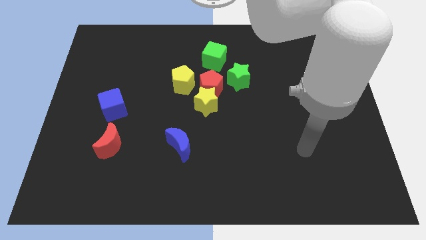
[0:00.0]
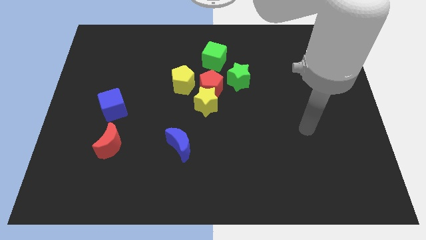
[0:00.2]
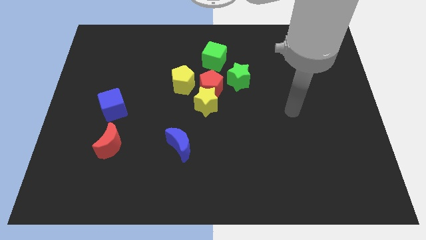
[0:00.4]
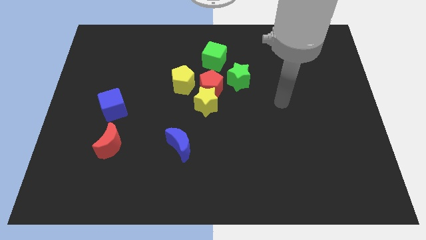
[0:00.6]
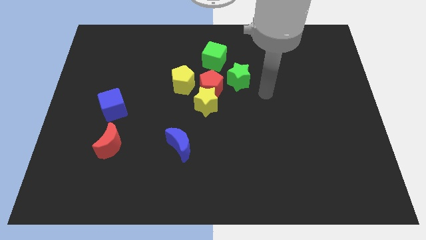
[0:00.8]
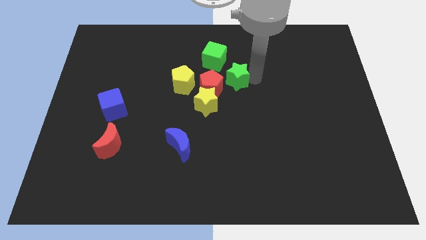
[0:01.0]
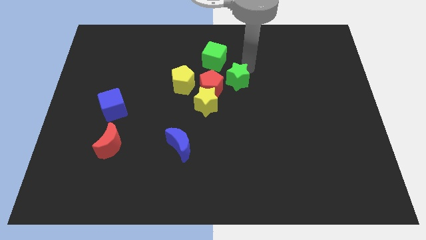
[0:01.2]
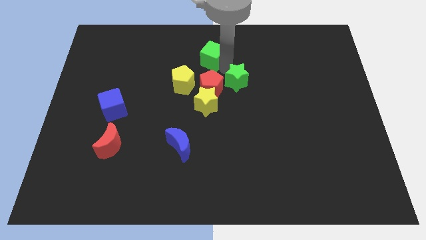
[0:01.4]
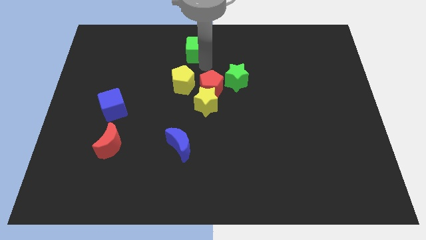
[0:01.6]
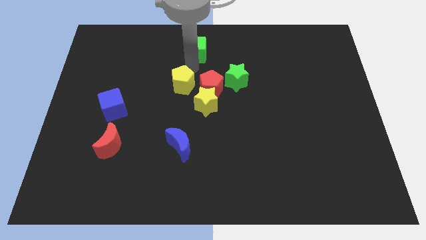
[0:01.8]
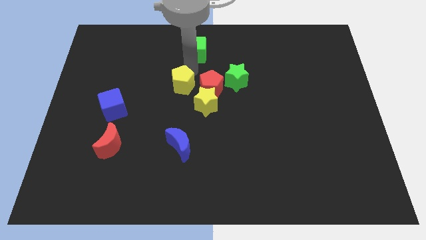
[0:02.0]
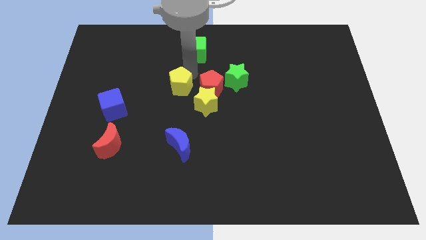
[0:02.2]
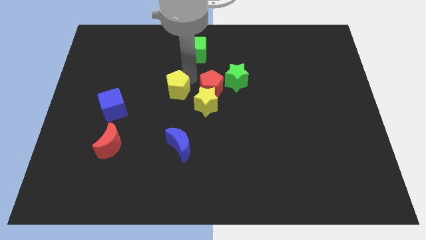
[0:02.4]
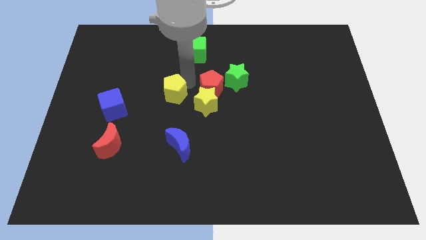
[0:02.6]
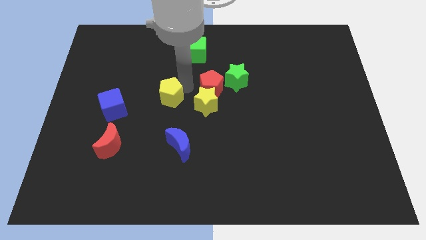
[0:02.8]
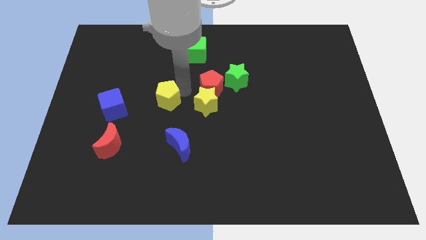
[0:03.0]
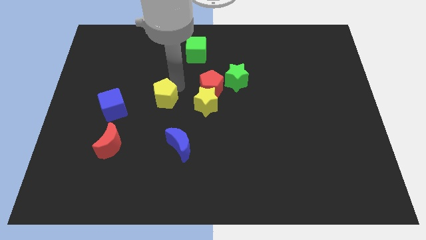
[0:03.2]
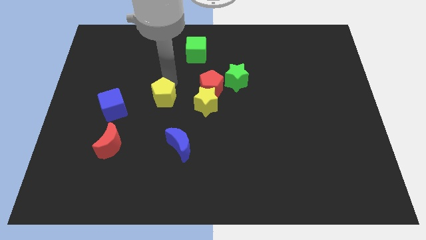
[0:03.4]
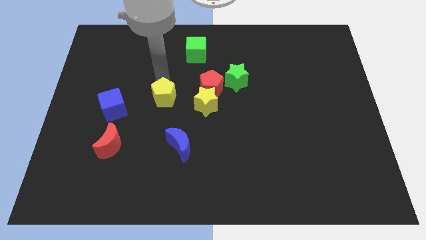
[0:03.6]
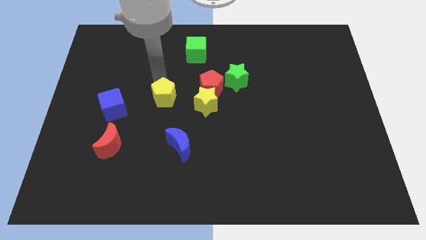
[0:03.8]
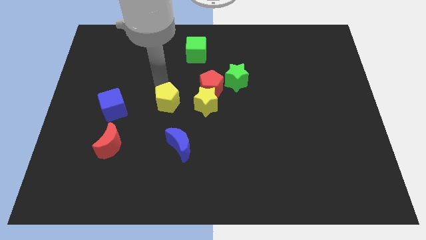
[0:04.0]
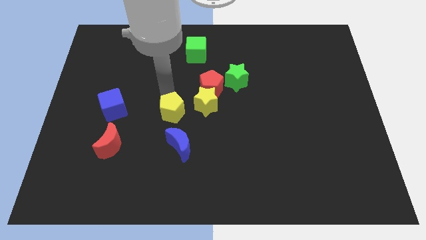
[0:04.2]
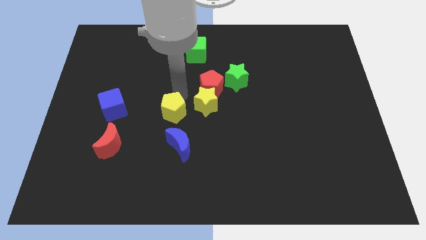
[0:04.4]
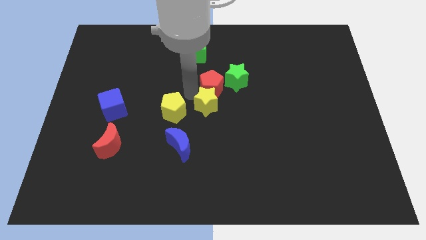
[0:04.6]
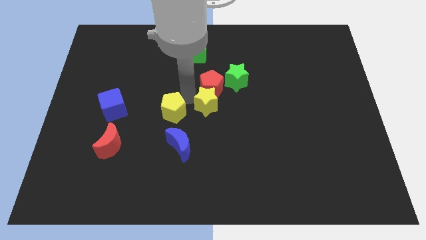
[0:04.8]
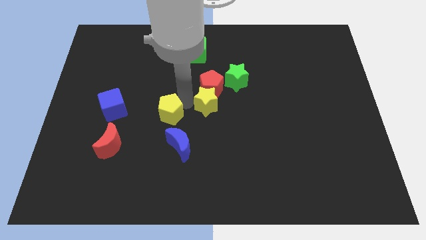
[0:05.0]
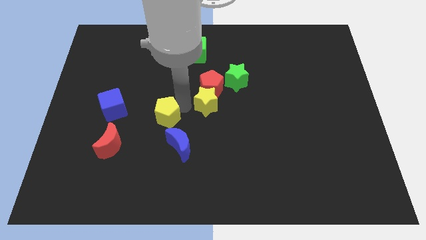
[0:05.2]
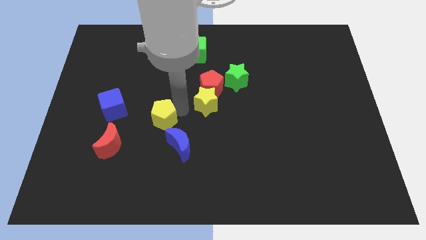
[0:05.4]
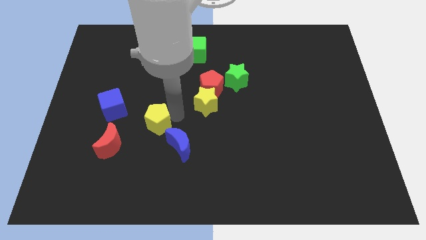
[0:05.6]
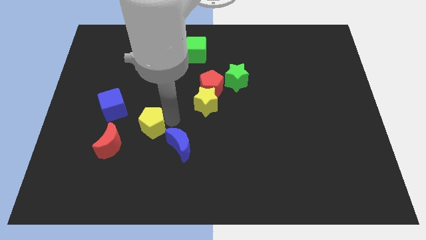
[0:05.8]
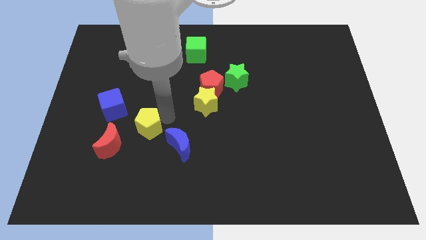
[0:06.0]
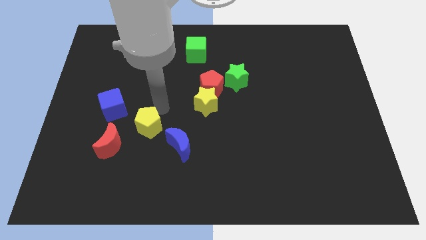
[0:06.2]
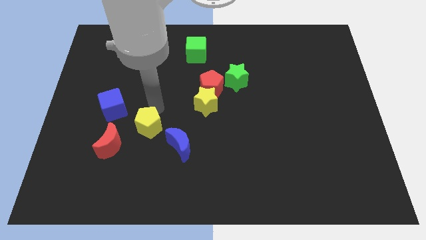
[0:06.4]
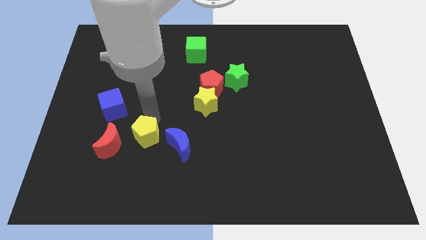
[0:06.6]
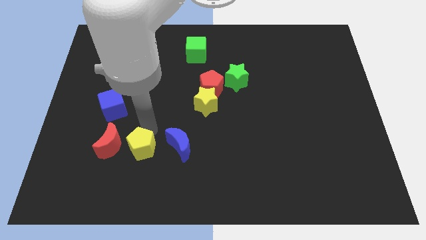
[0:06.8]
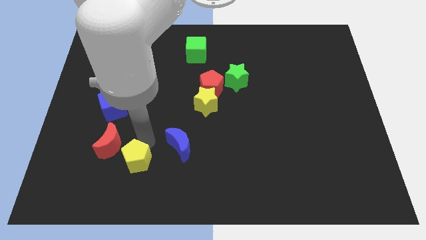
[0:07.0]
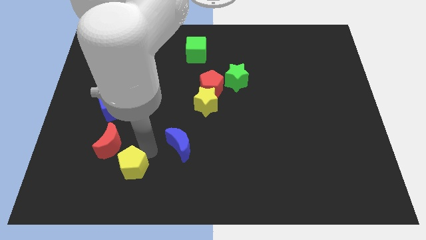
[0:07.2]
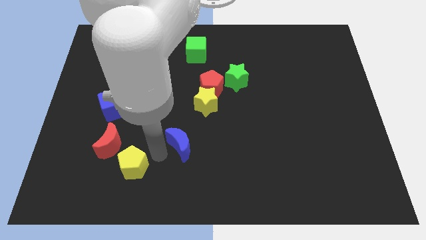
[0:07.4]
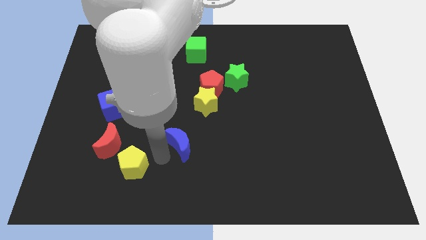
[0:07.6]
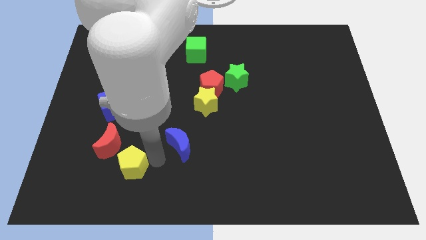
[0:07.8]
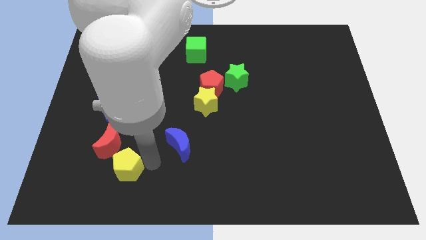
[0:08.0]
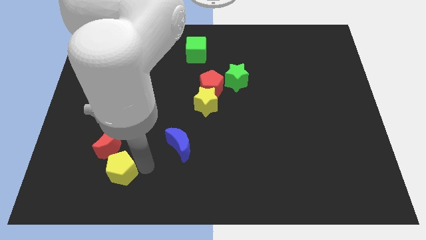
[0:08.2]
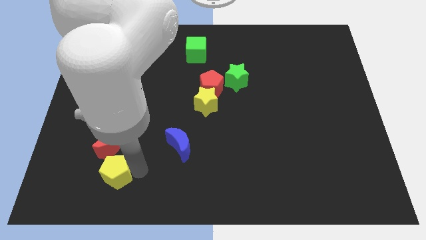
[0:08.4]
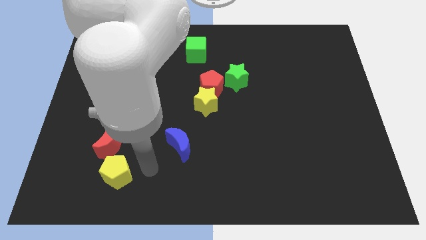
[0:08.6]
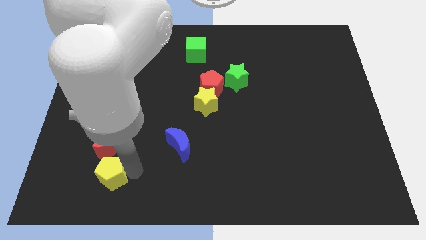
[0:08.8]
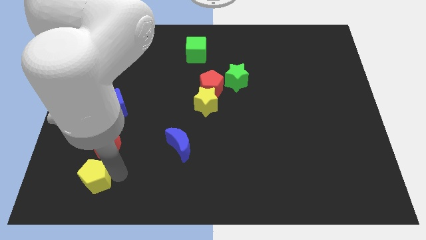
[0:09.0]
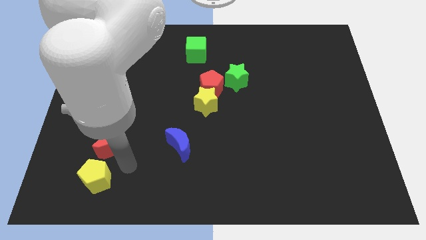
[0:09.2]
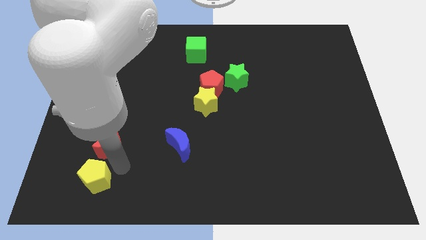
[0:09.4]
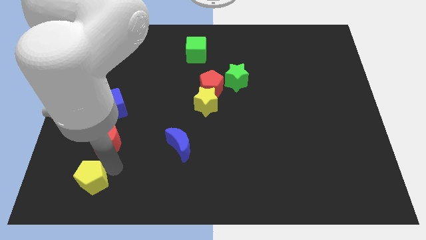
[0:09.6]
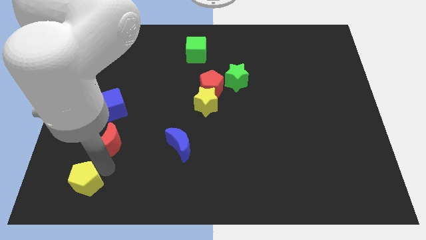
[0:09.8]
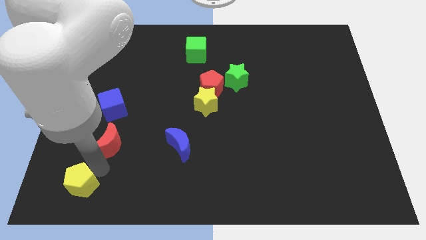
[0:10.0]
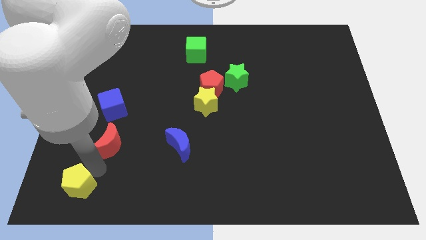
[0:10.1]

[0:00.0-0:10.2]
slide the yellow pentagon to the bottom left of the board

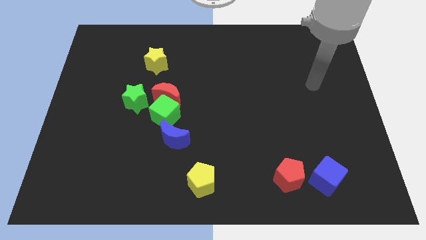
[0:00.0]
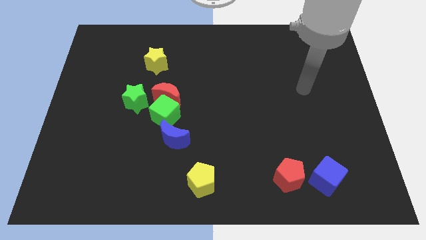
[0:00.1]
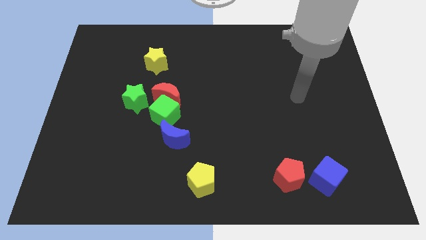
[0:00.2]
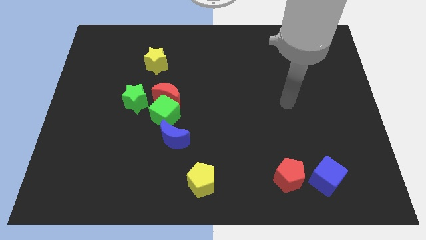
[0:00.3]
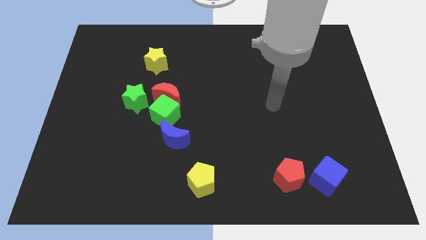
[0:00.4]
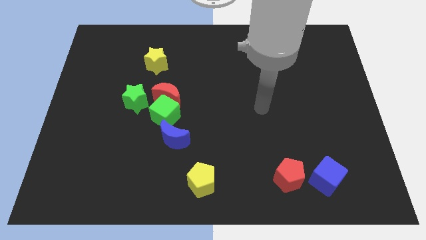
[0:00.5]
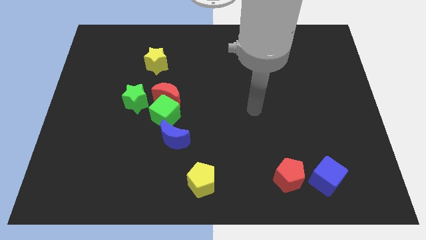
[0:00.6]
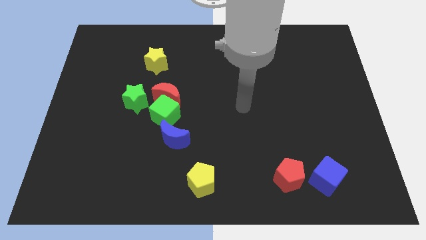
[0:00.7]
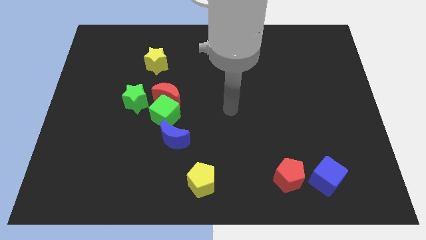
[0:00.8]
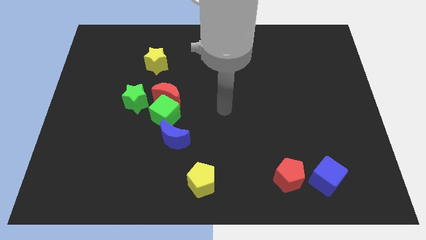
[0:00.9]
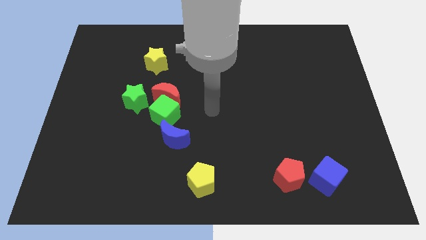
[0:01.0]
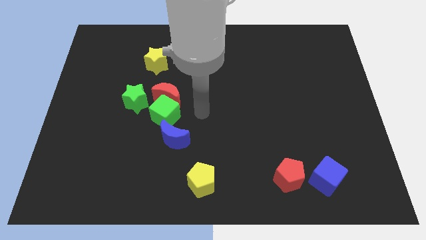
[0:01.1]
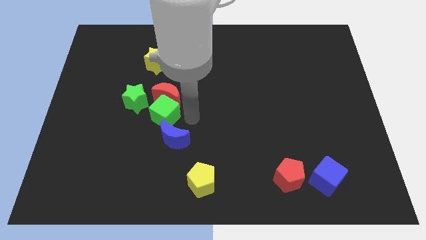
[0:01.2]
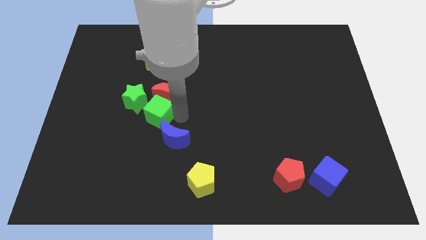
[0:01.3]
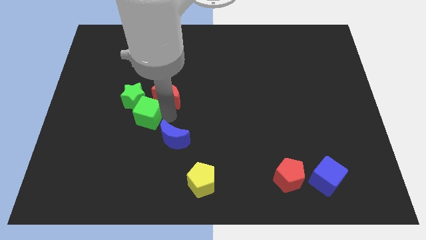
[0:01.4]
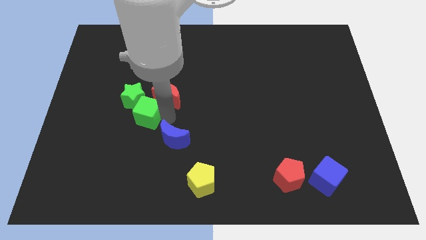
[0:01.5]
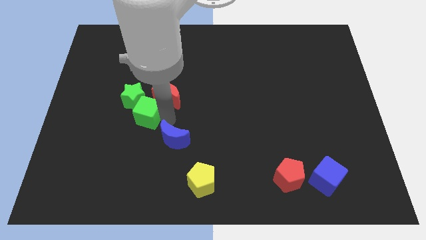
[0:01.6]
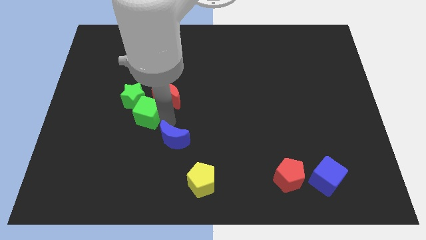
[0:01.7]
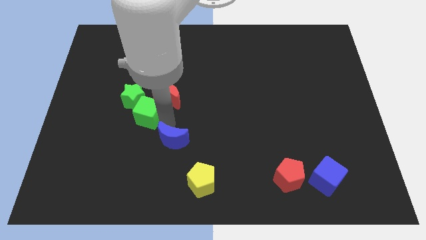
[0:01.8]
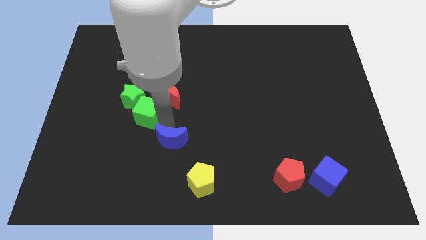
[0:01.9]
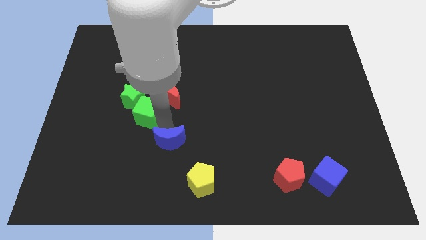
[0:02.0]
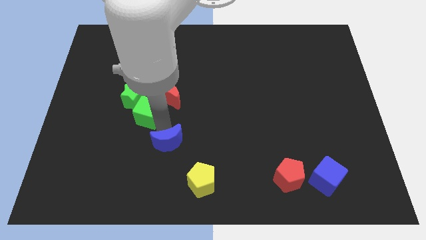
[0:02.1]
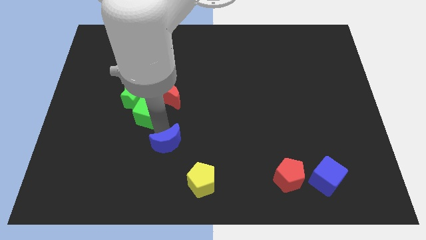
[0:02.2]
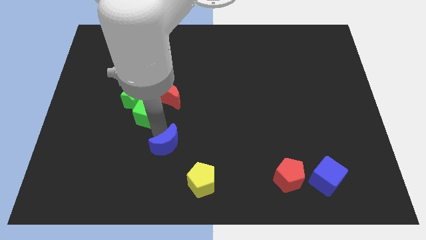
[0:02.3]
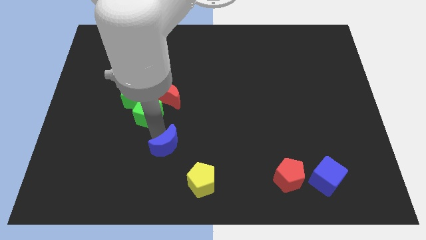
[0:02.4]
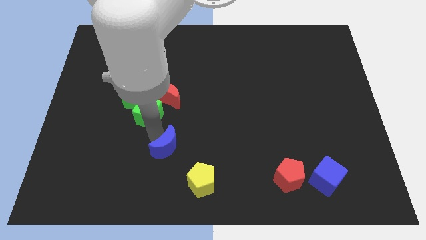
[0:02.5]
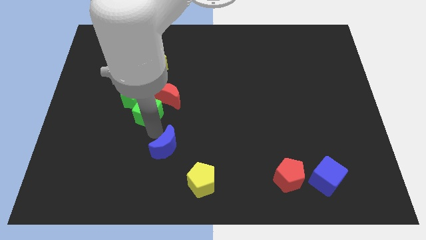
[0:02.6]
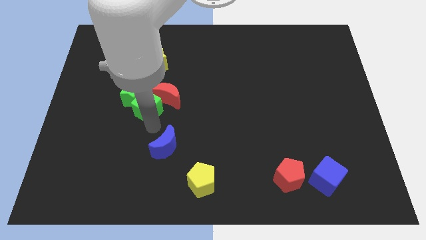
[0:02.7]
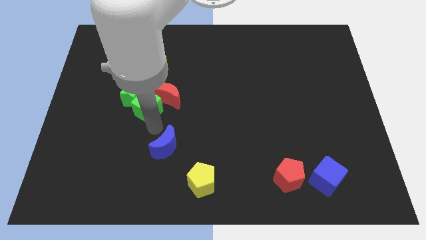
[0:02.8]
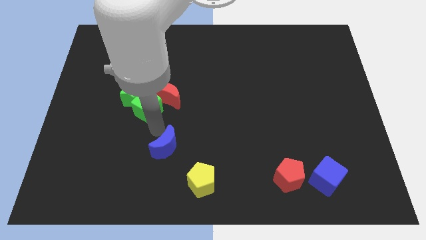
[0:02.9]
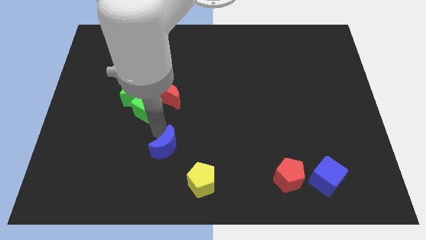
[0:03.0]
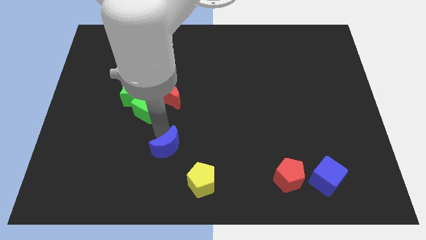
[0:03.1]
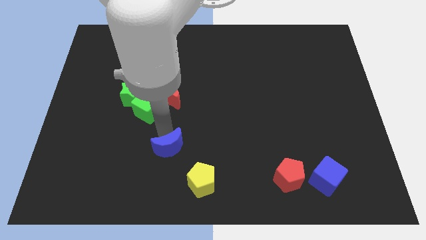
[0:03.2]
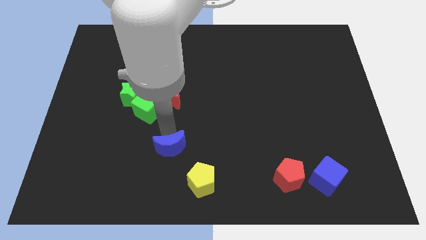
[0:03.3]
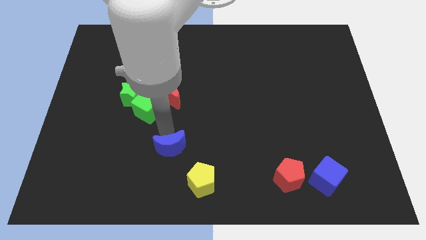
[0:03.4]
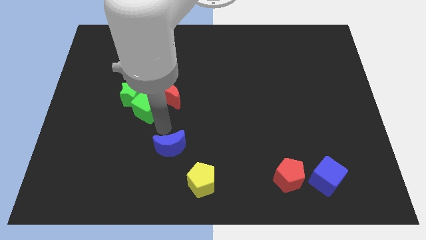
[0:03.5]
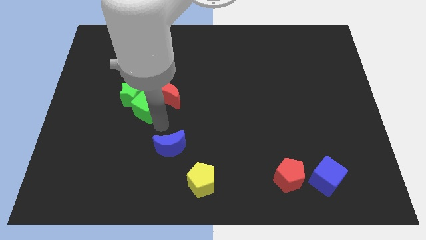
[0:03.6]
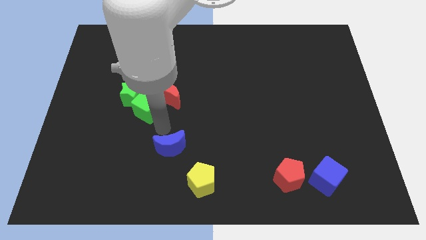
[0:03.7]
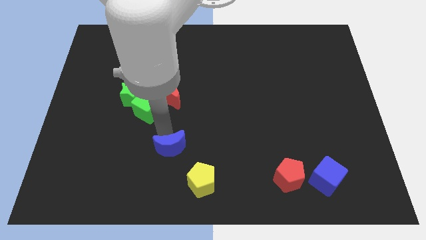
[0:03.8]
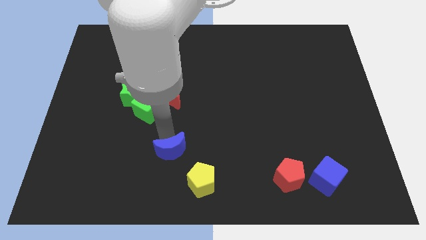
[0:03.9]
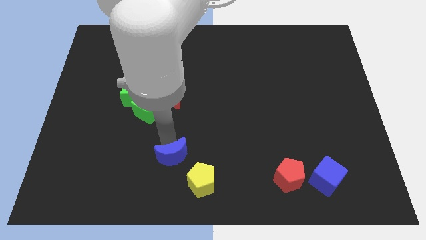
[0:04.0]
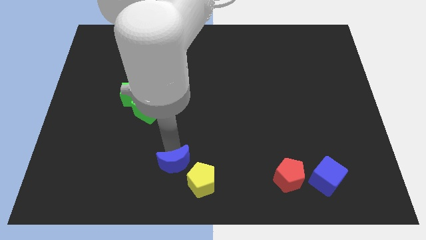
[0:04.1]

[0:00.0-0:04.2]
put the blue moon to the bottom side
